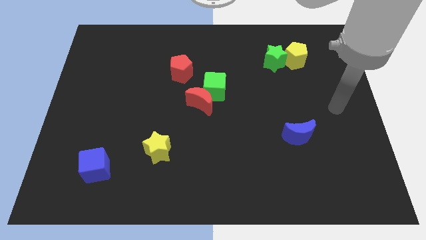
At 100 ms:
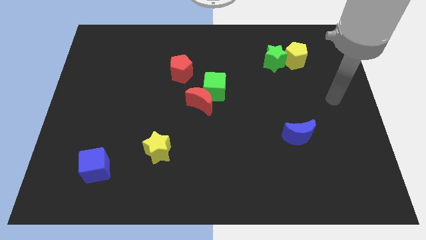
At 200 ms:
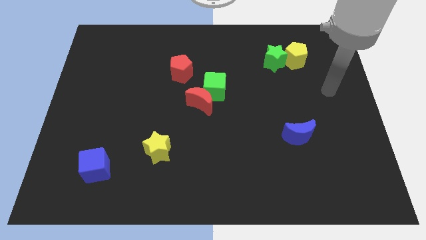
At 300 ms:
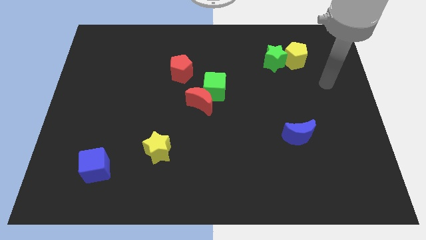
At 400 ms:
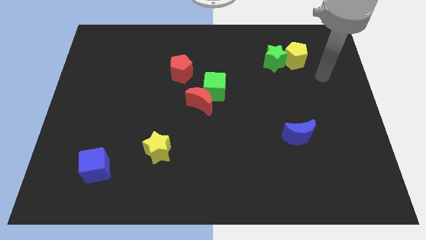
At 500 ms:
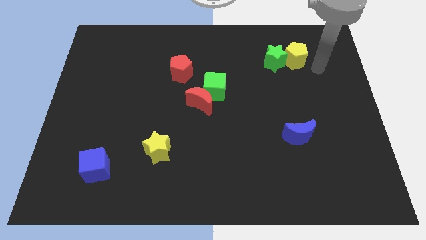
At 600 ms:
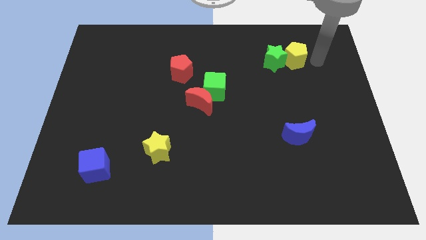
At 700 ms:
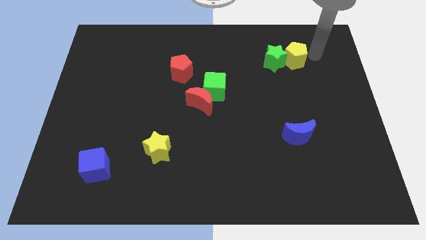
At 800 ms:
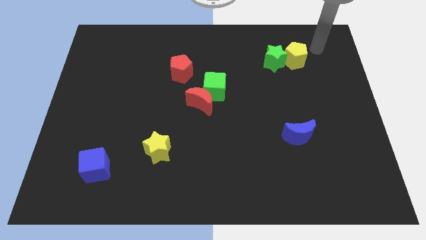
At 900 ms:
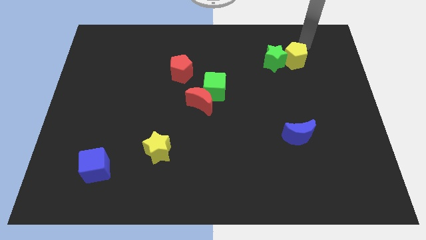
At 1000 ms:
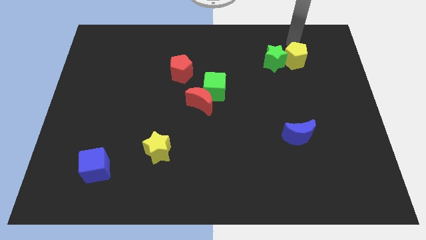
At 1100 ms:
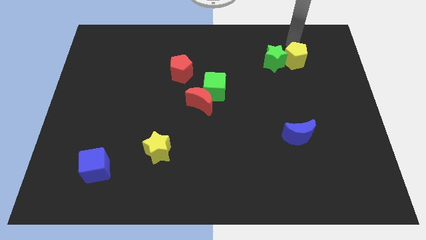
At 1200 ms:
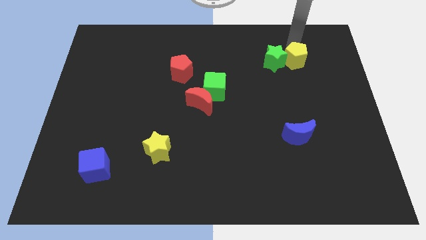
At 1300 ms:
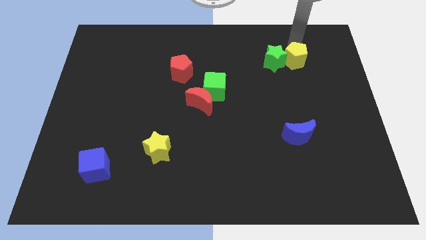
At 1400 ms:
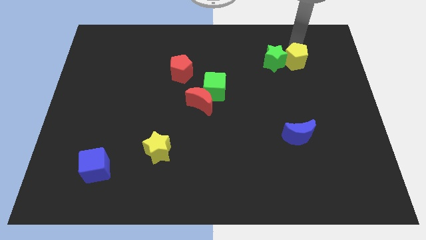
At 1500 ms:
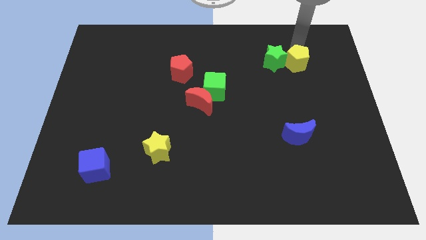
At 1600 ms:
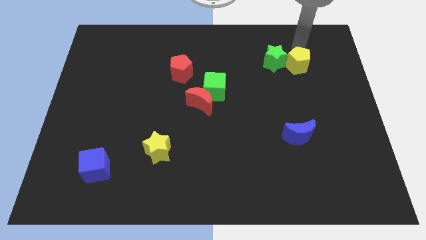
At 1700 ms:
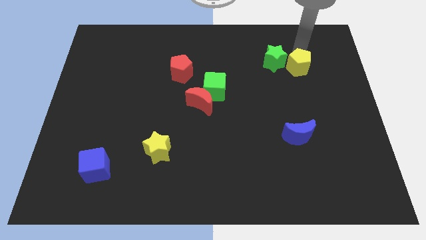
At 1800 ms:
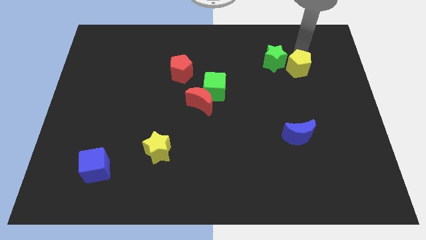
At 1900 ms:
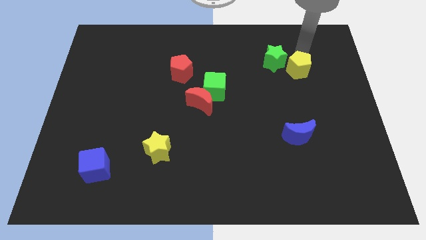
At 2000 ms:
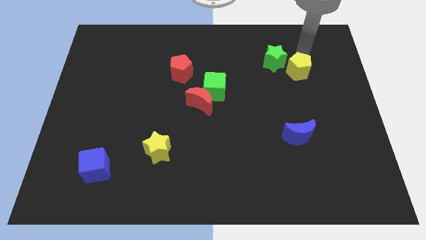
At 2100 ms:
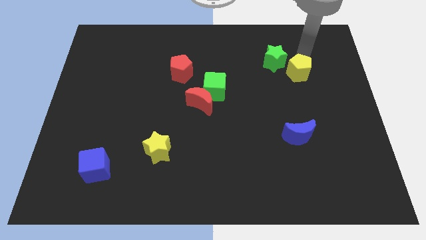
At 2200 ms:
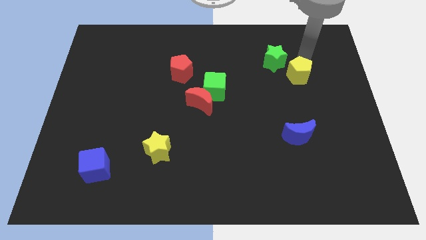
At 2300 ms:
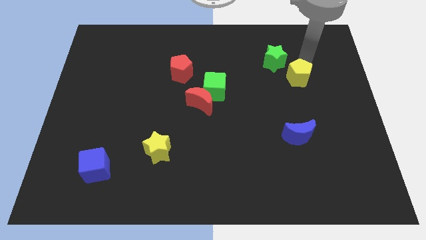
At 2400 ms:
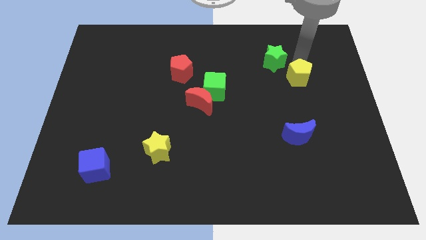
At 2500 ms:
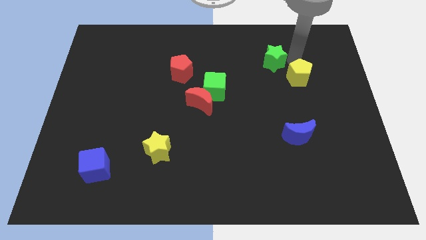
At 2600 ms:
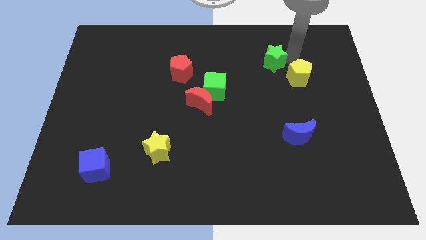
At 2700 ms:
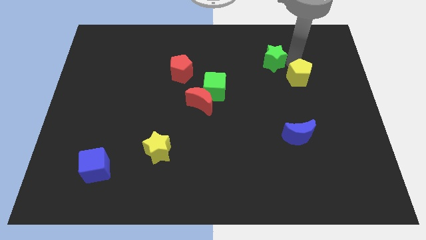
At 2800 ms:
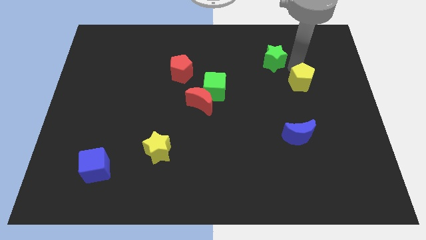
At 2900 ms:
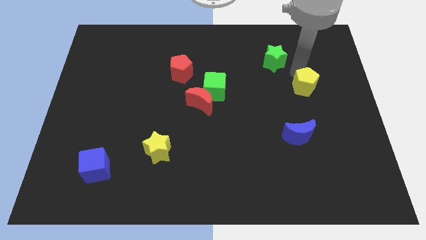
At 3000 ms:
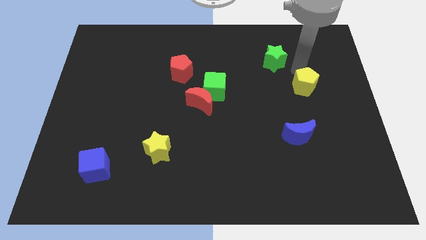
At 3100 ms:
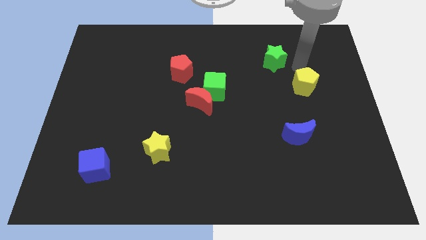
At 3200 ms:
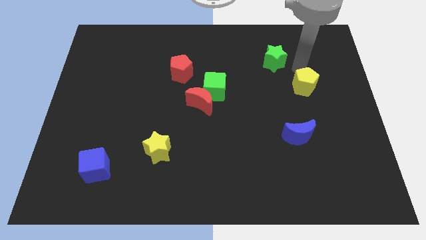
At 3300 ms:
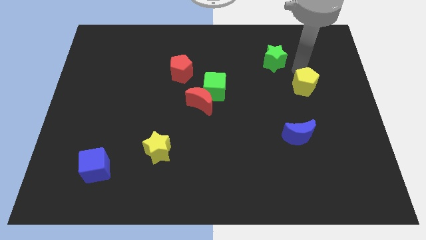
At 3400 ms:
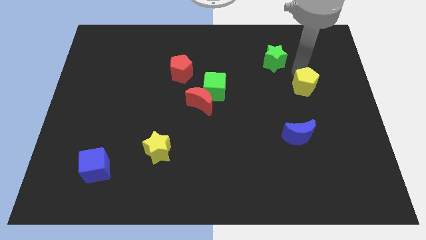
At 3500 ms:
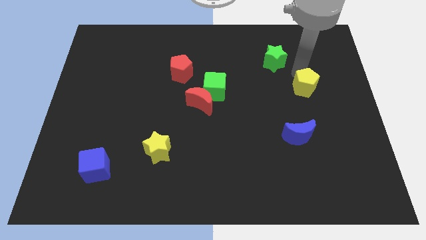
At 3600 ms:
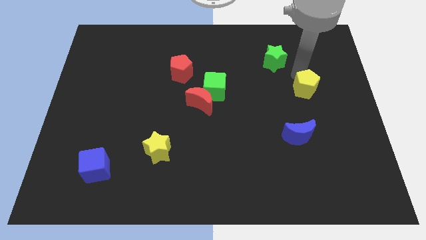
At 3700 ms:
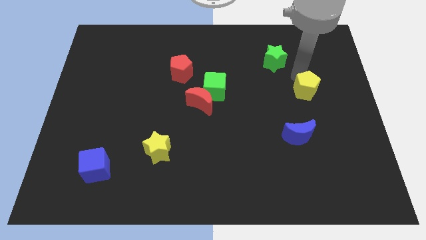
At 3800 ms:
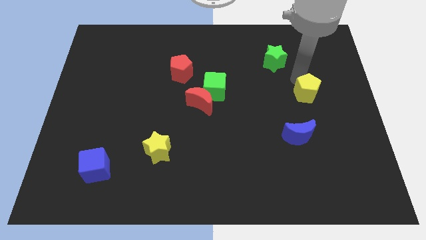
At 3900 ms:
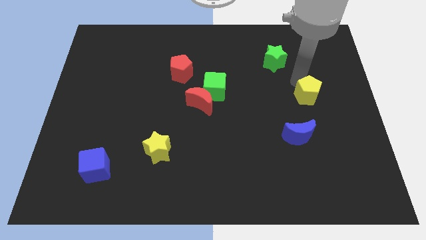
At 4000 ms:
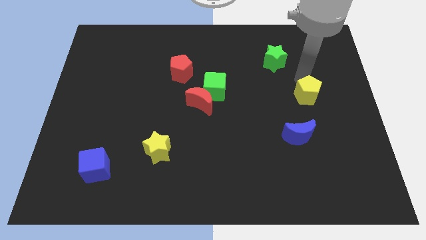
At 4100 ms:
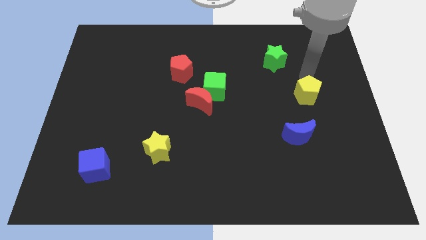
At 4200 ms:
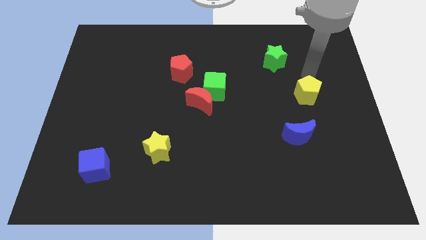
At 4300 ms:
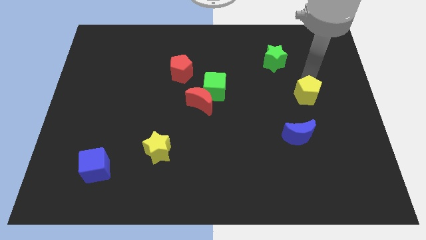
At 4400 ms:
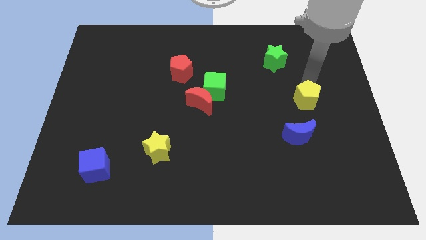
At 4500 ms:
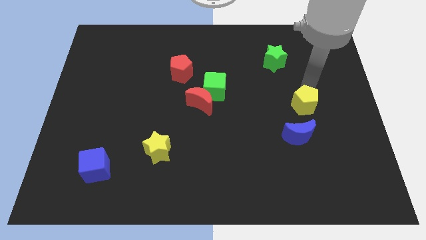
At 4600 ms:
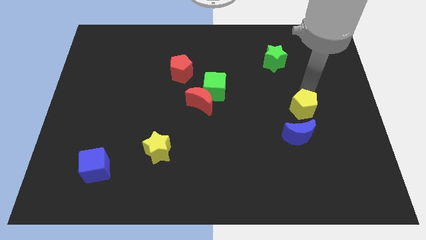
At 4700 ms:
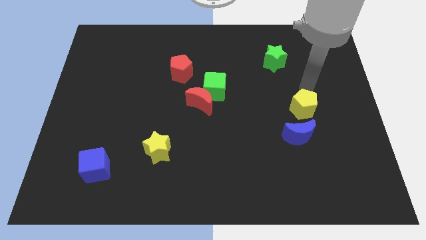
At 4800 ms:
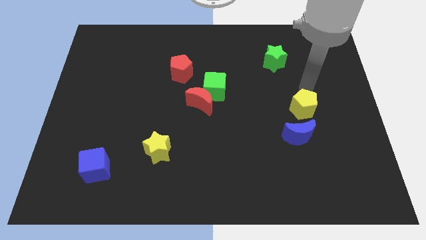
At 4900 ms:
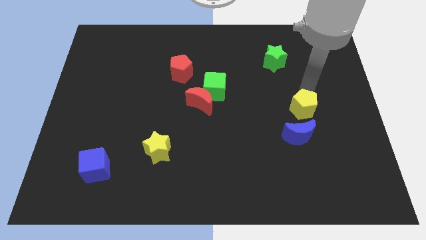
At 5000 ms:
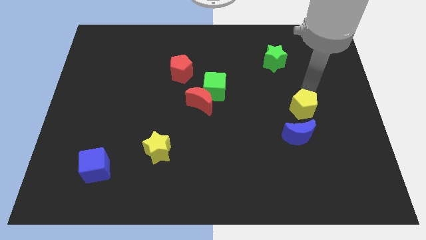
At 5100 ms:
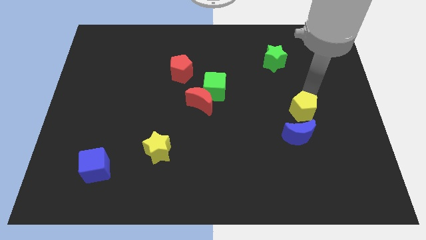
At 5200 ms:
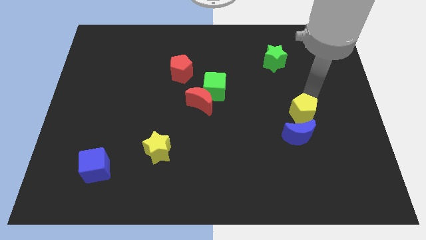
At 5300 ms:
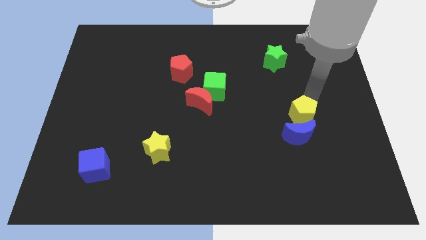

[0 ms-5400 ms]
slide the yellow pentagon to the blue moon

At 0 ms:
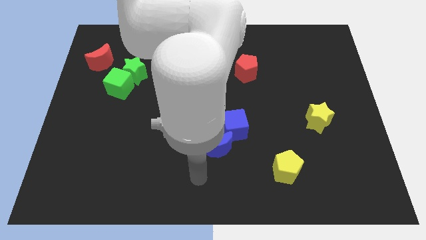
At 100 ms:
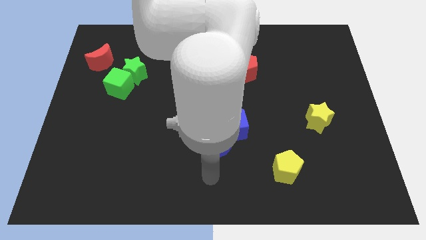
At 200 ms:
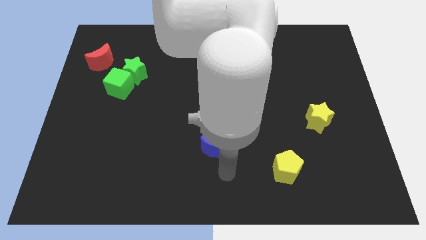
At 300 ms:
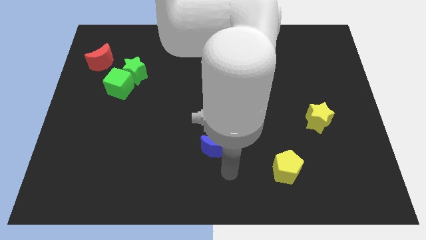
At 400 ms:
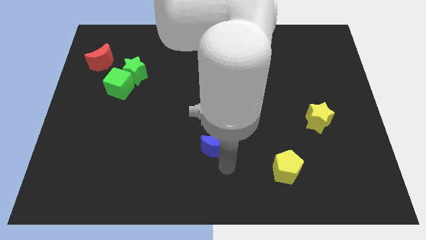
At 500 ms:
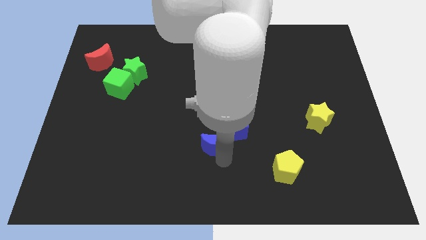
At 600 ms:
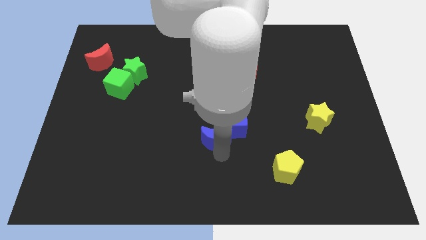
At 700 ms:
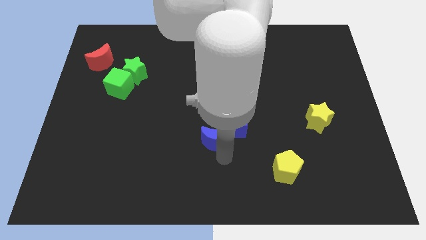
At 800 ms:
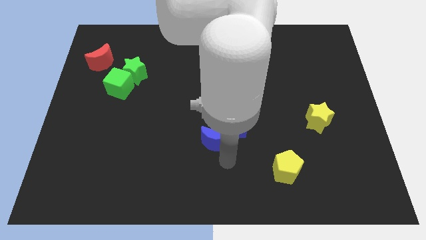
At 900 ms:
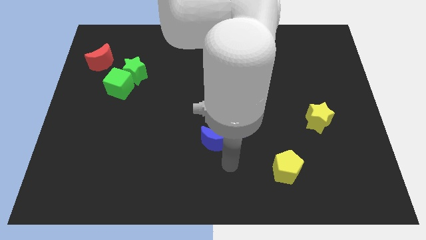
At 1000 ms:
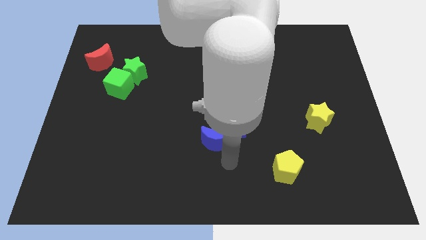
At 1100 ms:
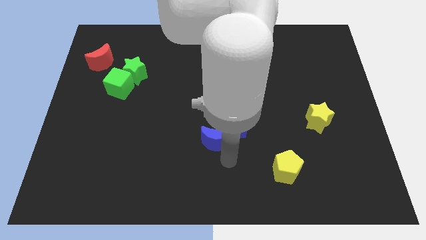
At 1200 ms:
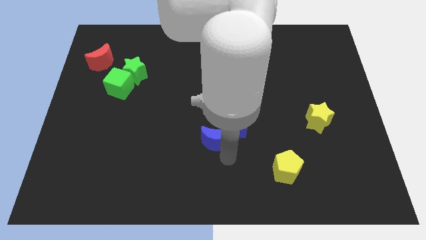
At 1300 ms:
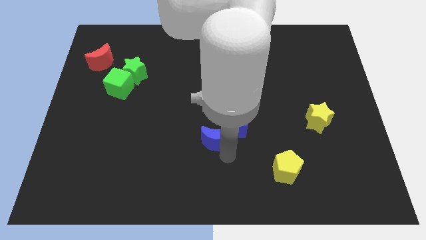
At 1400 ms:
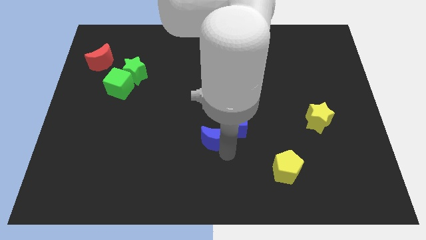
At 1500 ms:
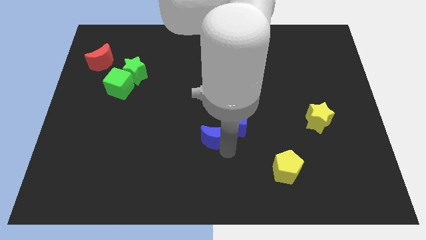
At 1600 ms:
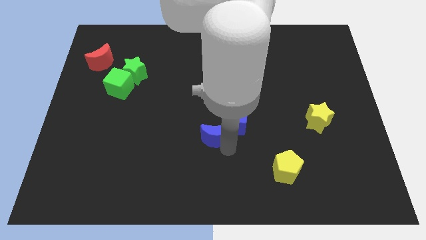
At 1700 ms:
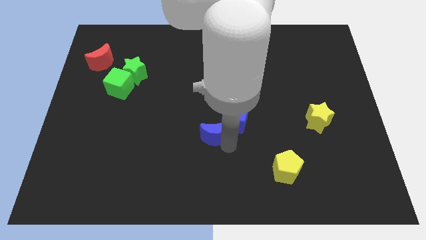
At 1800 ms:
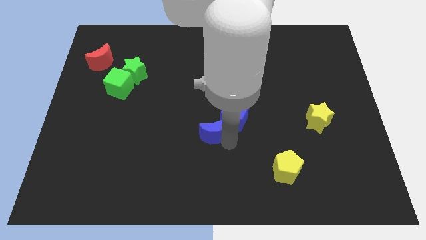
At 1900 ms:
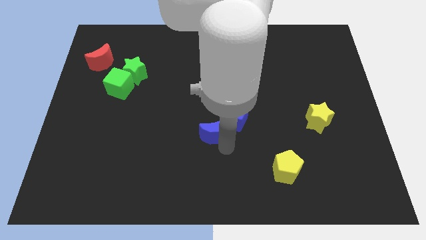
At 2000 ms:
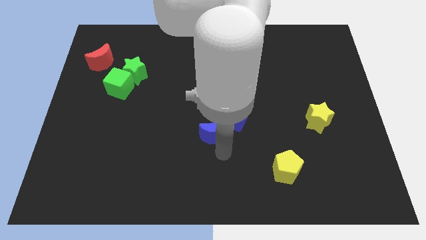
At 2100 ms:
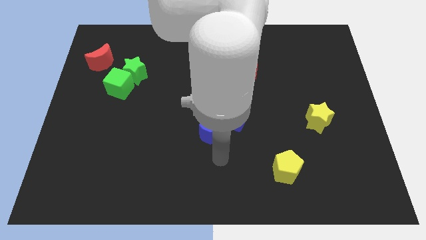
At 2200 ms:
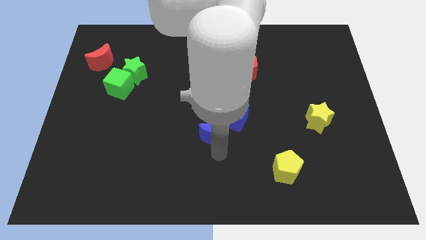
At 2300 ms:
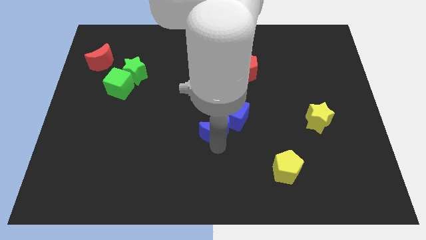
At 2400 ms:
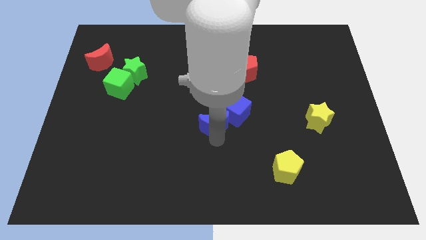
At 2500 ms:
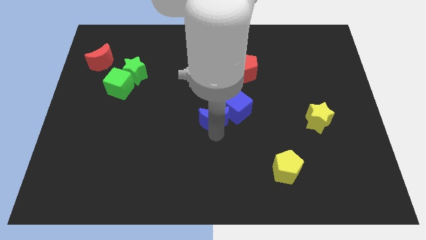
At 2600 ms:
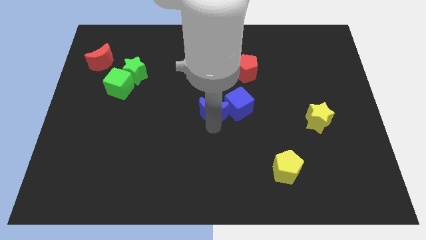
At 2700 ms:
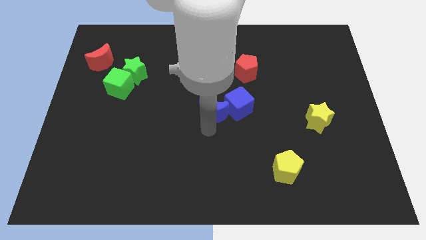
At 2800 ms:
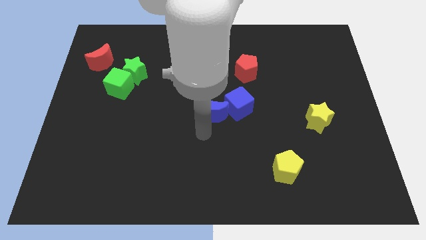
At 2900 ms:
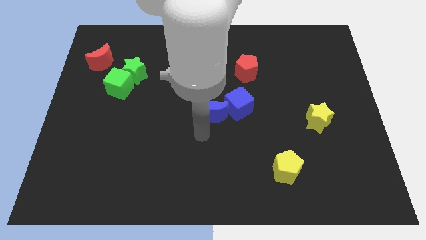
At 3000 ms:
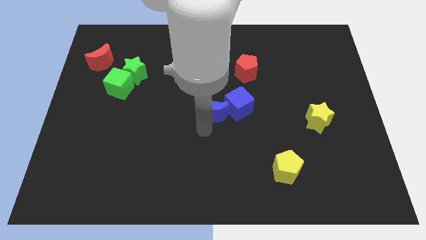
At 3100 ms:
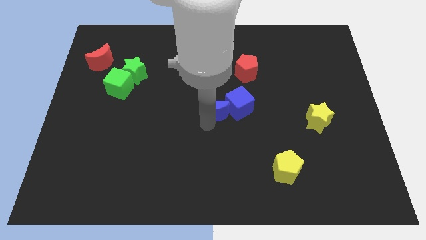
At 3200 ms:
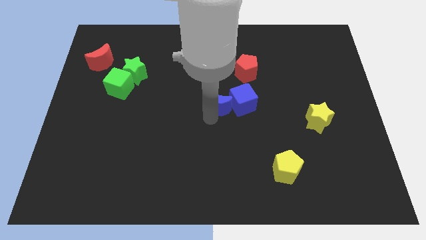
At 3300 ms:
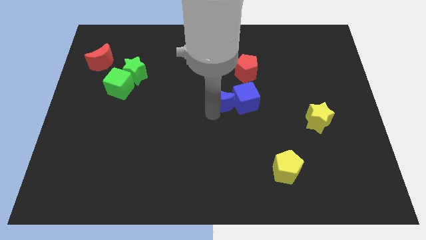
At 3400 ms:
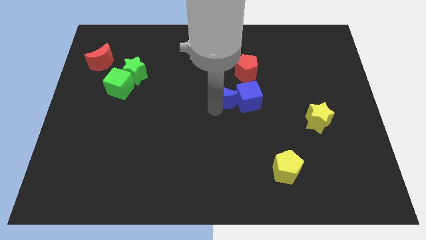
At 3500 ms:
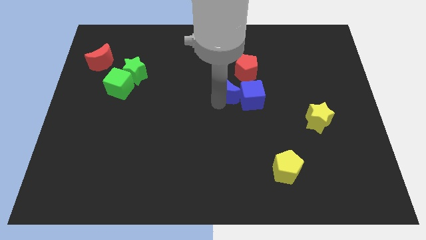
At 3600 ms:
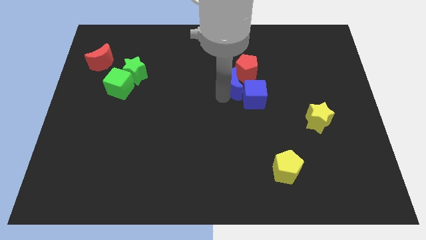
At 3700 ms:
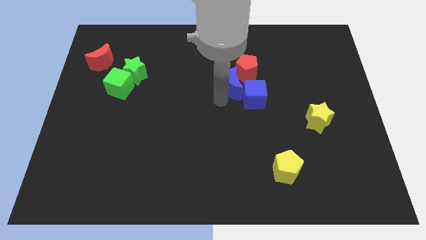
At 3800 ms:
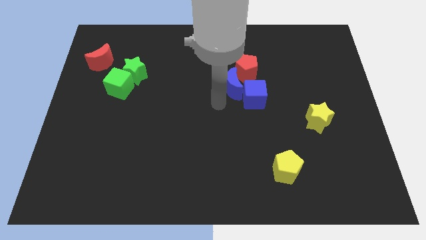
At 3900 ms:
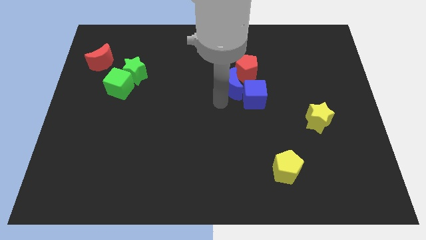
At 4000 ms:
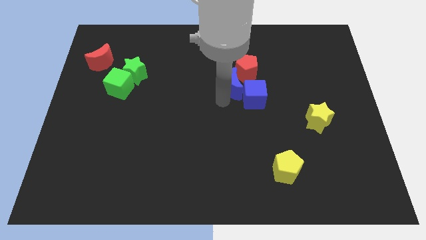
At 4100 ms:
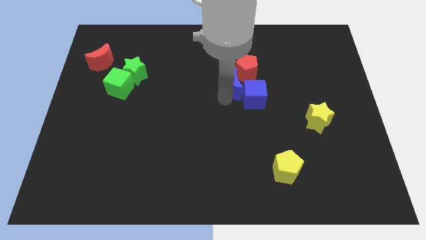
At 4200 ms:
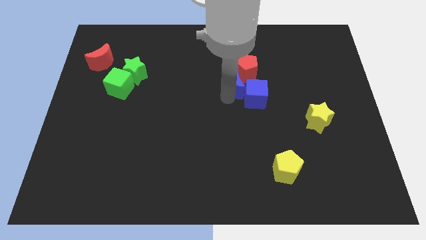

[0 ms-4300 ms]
move the blue moon towards the red pentagon
